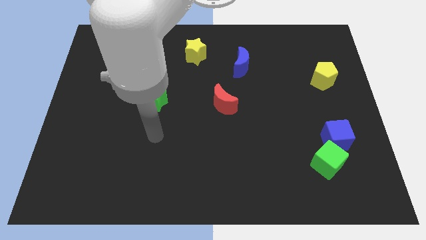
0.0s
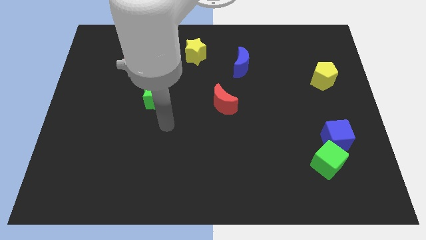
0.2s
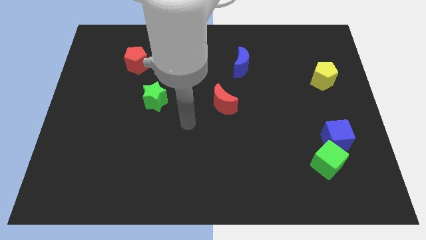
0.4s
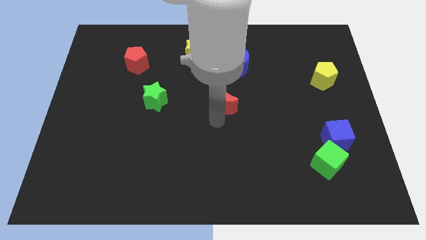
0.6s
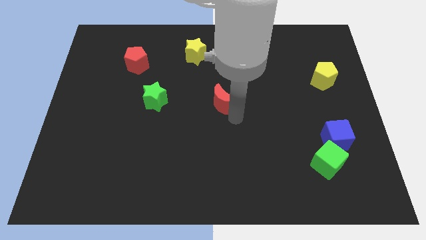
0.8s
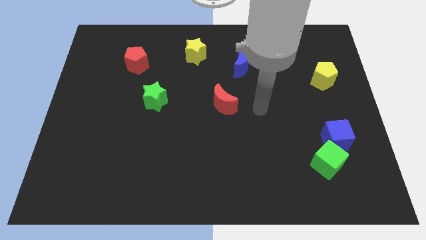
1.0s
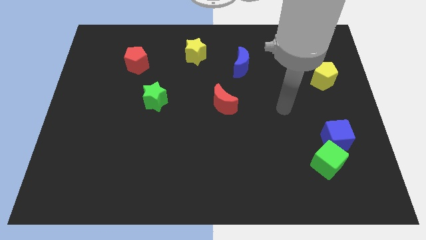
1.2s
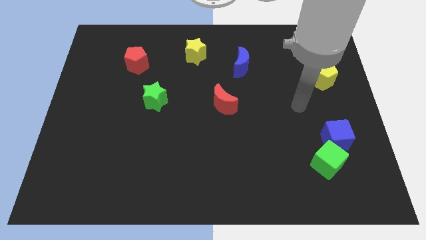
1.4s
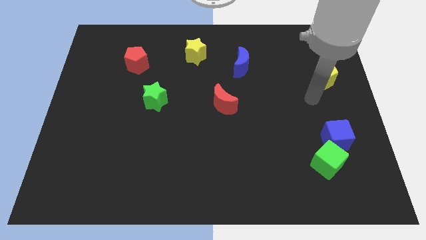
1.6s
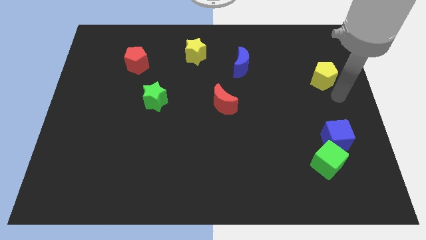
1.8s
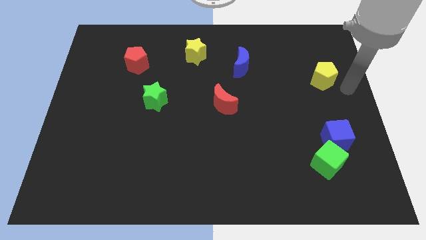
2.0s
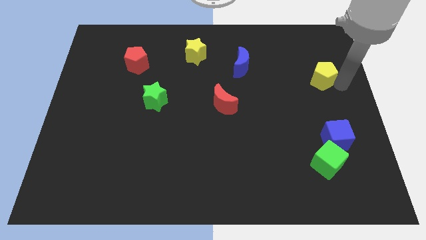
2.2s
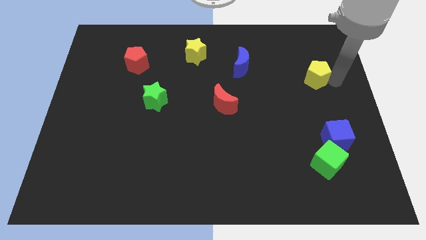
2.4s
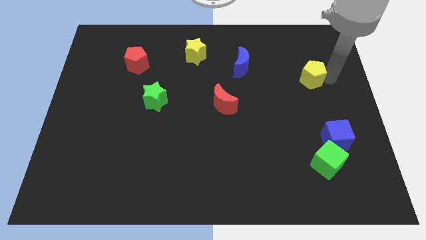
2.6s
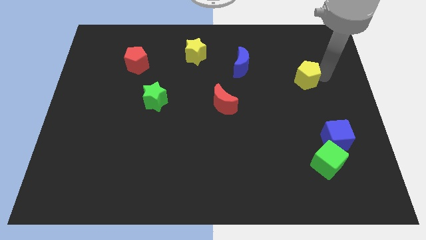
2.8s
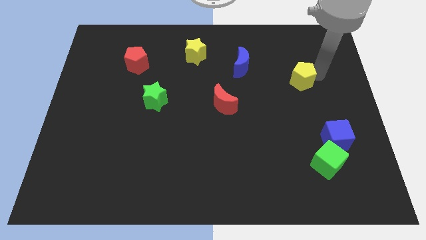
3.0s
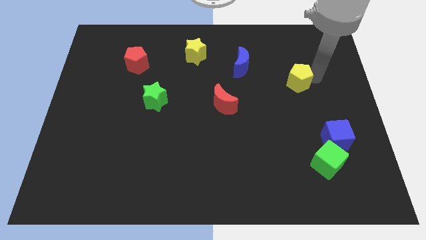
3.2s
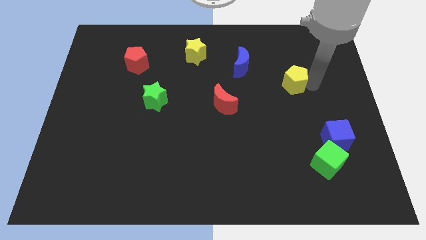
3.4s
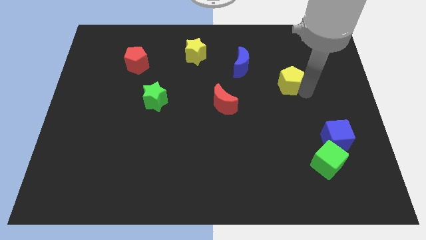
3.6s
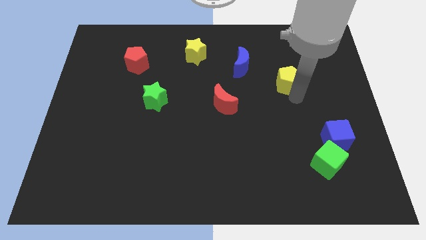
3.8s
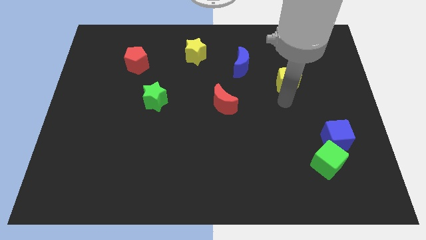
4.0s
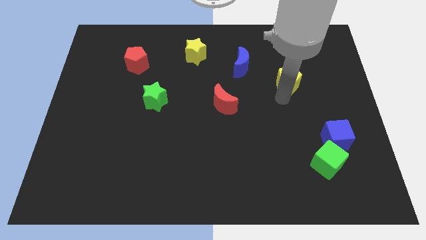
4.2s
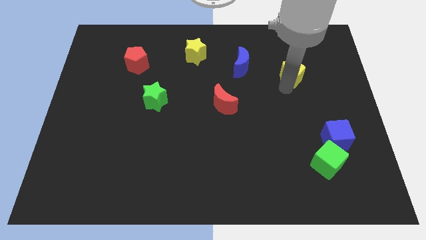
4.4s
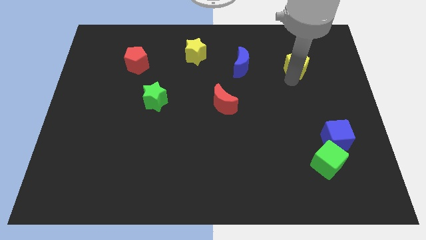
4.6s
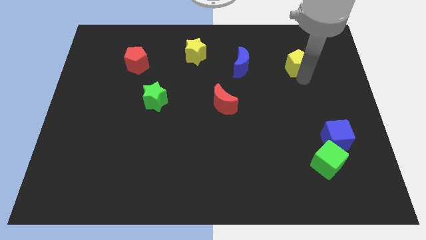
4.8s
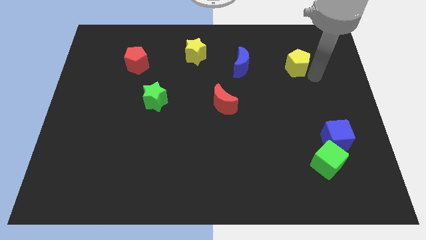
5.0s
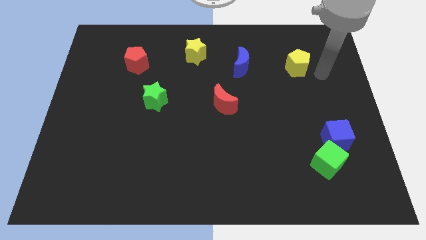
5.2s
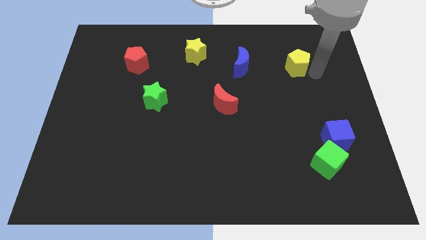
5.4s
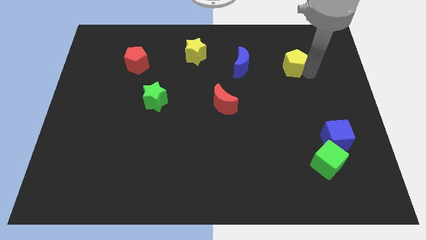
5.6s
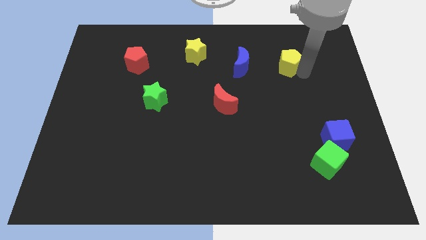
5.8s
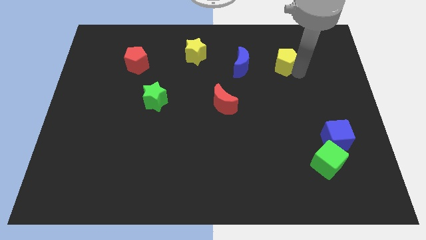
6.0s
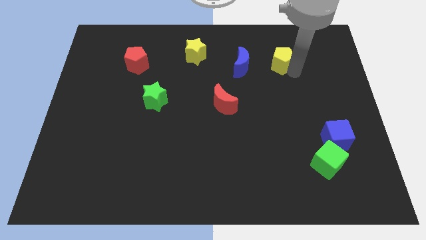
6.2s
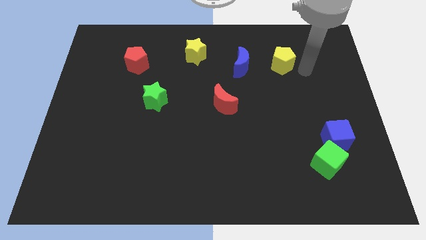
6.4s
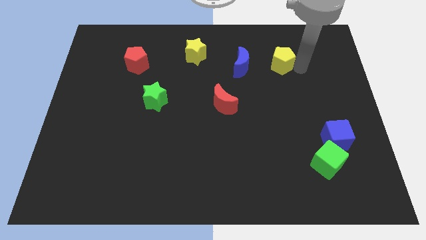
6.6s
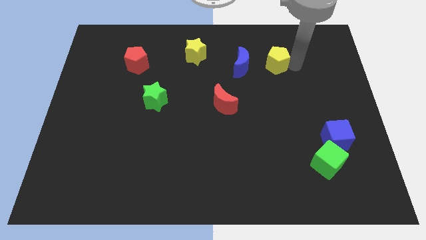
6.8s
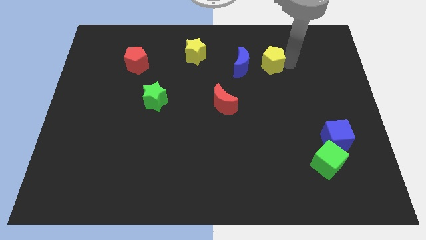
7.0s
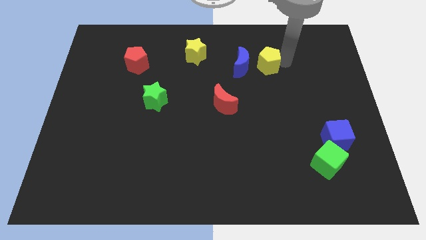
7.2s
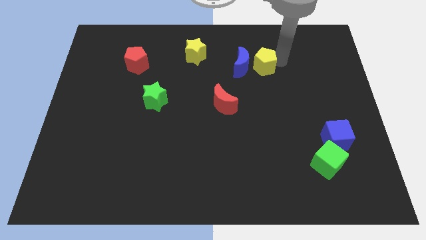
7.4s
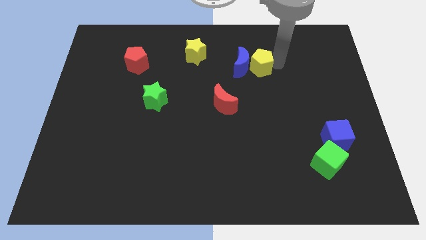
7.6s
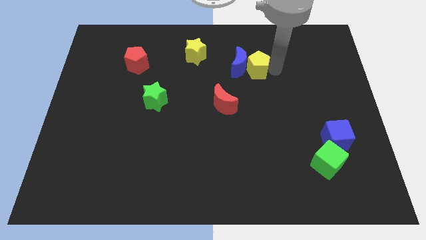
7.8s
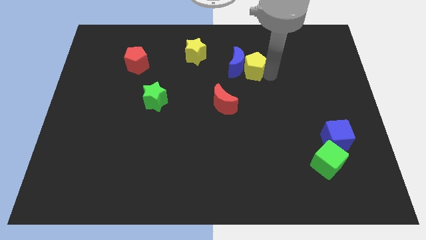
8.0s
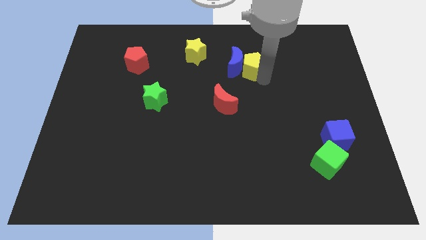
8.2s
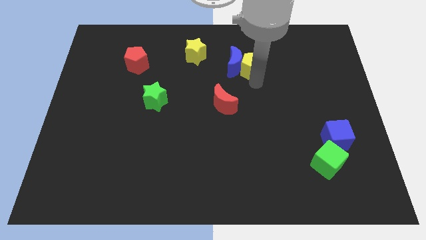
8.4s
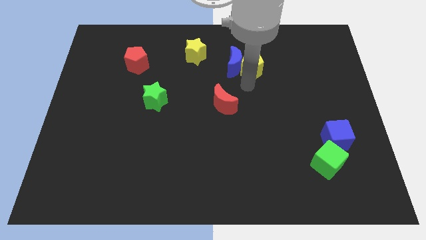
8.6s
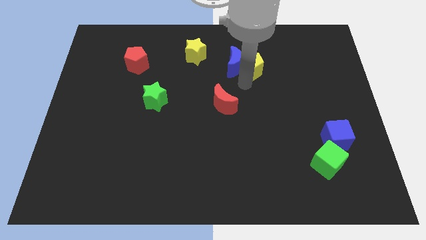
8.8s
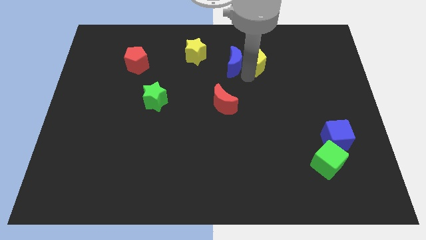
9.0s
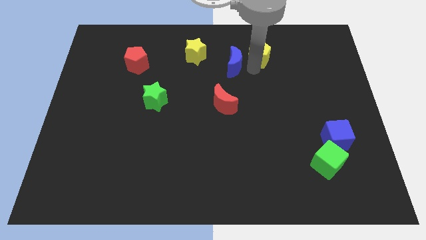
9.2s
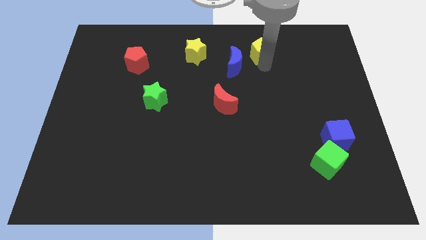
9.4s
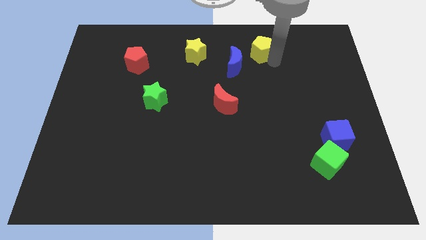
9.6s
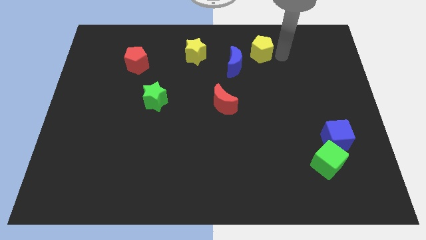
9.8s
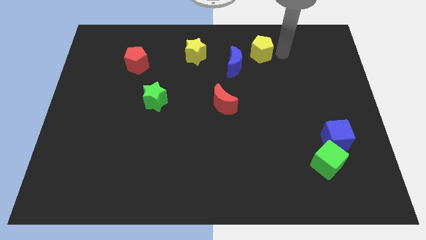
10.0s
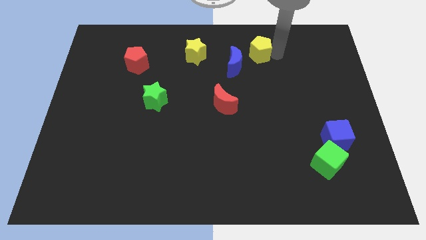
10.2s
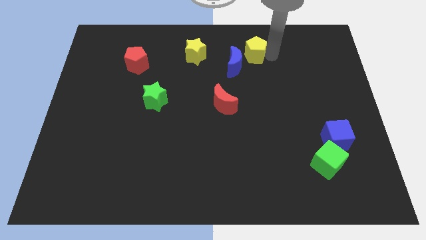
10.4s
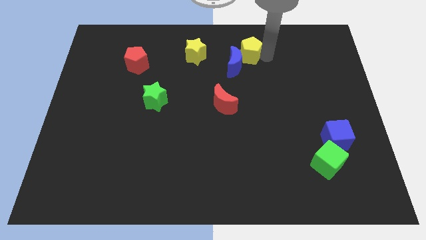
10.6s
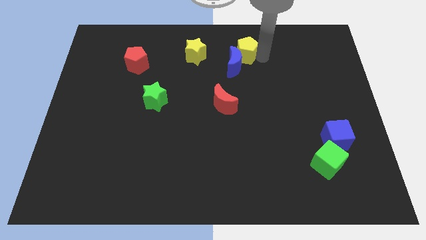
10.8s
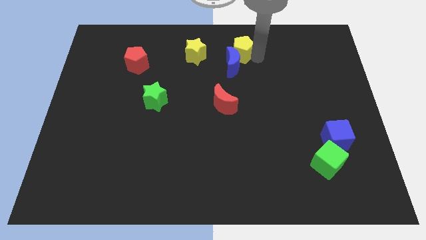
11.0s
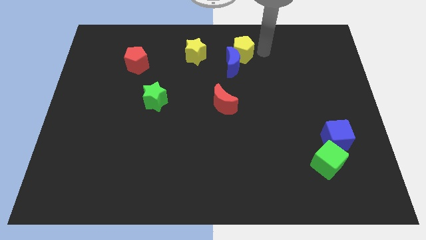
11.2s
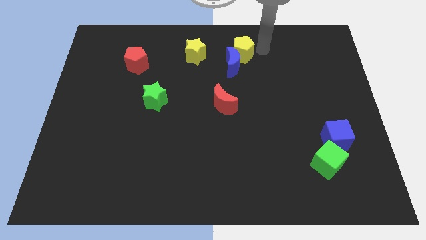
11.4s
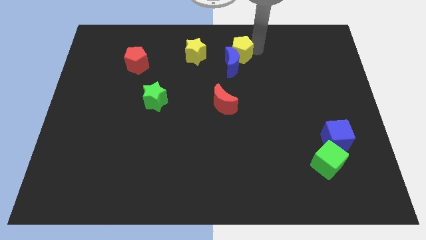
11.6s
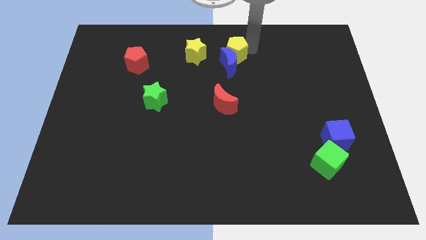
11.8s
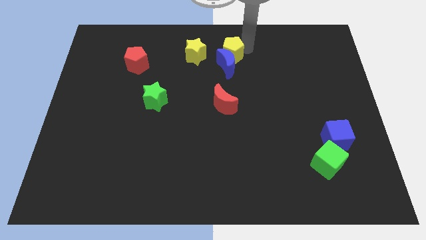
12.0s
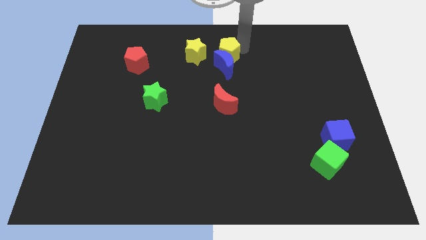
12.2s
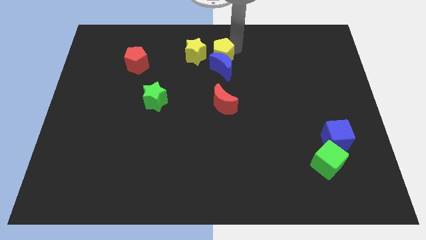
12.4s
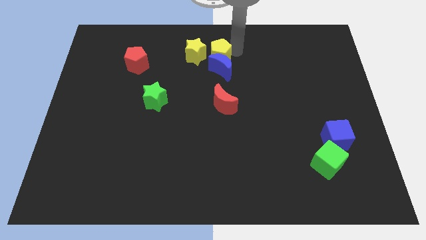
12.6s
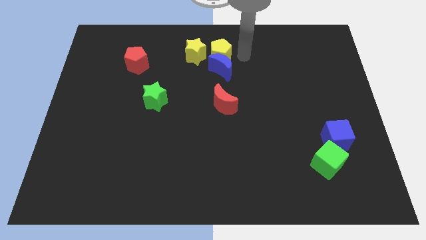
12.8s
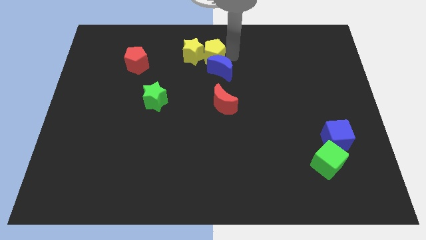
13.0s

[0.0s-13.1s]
put the yellow pentagon to the yellow star
